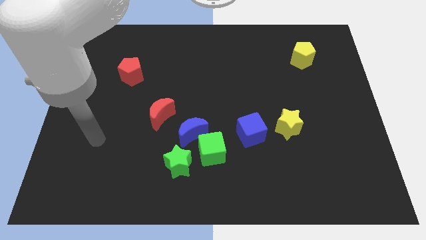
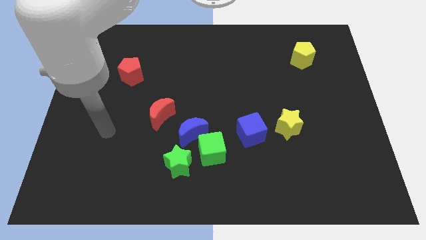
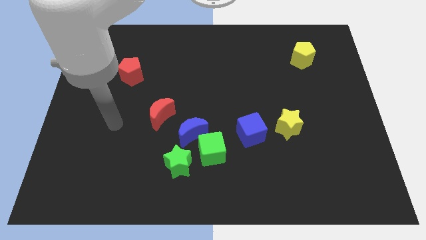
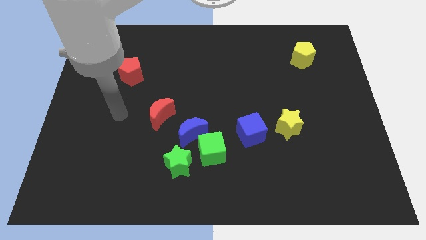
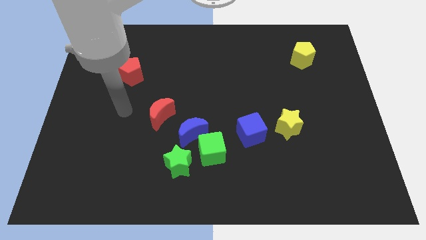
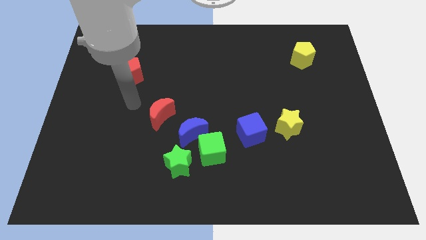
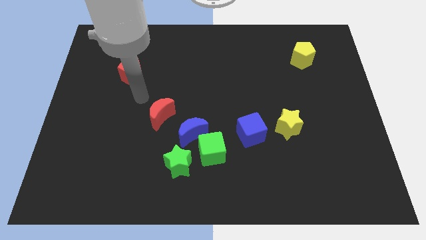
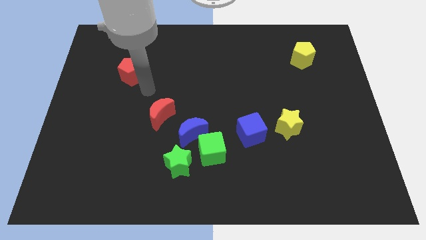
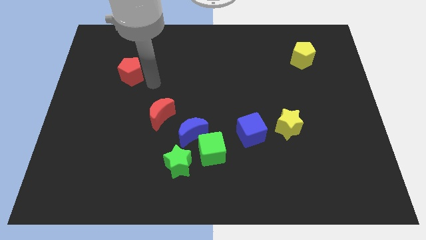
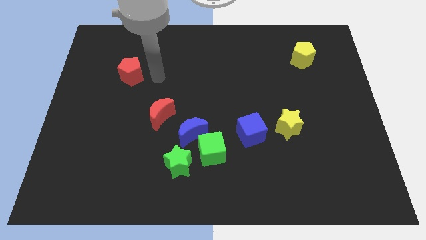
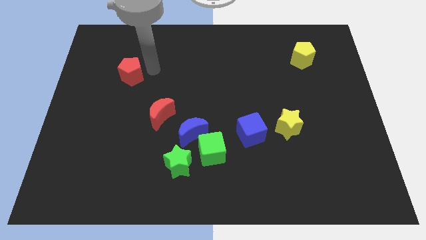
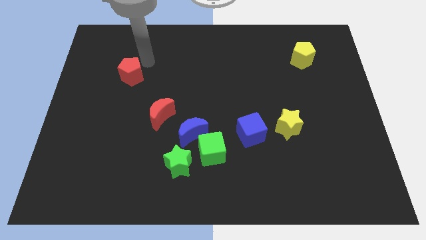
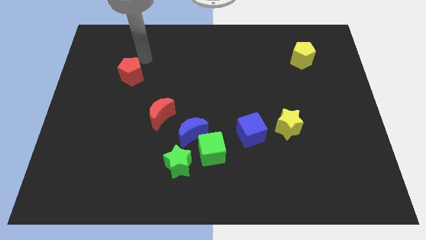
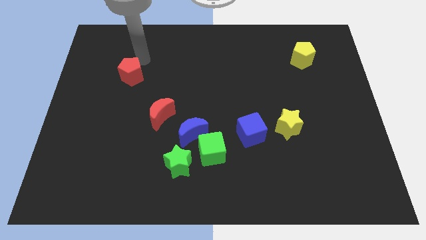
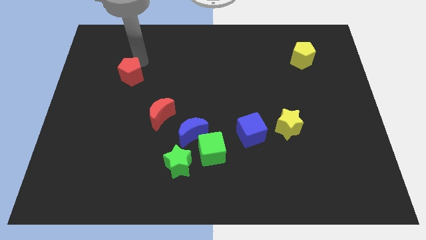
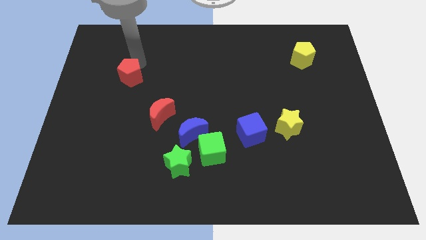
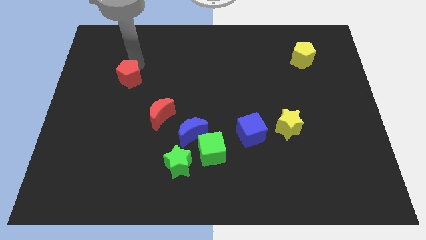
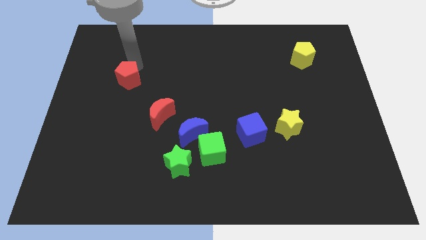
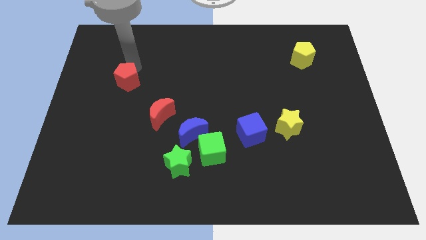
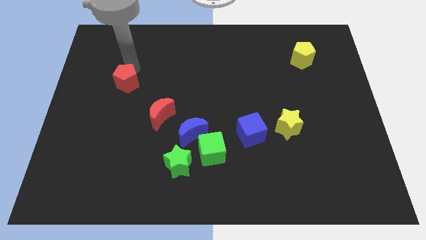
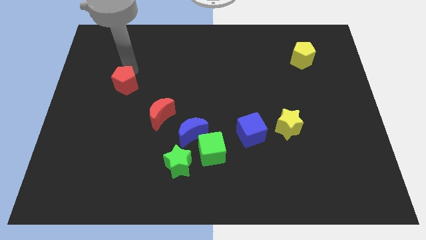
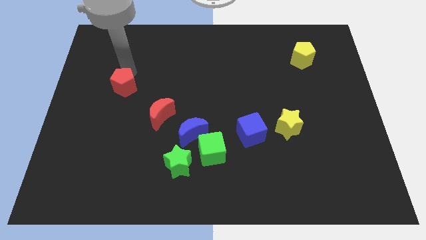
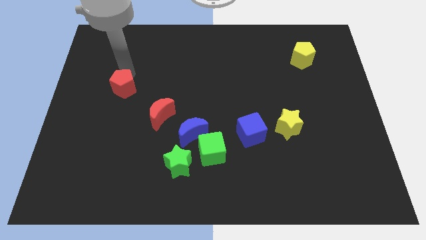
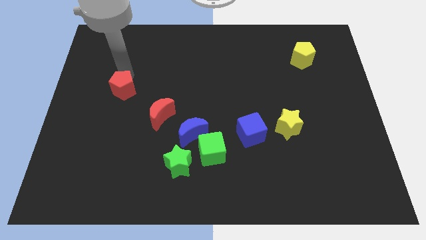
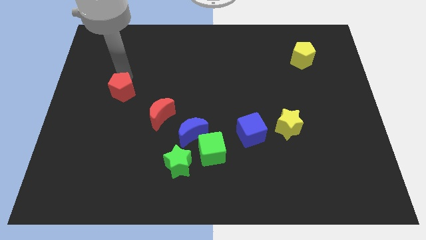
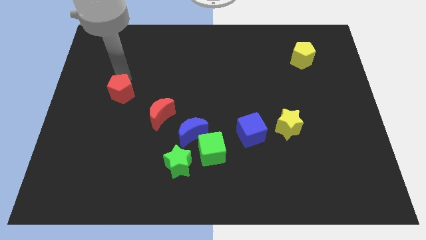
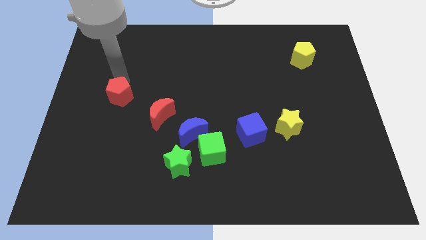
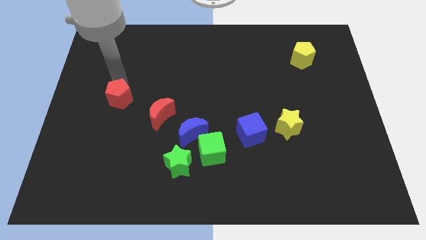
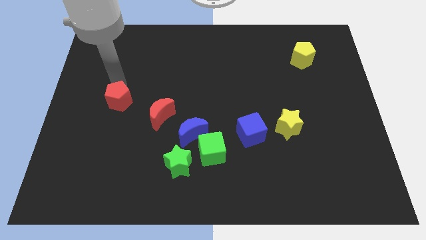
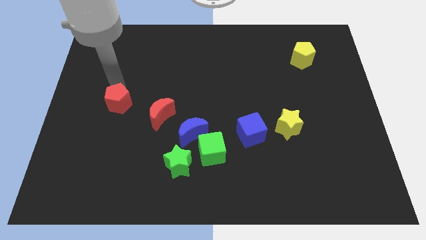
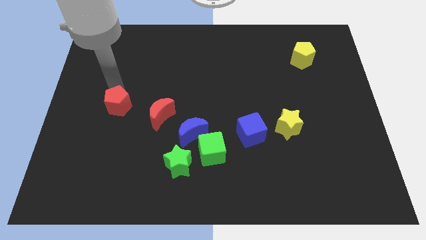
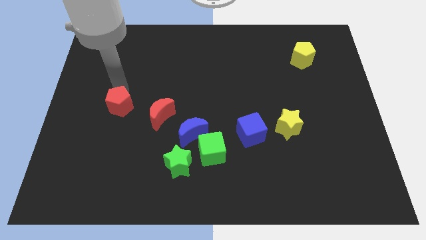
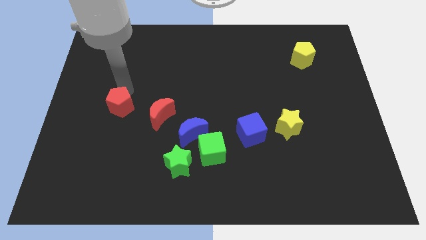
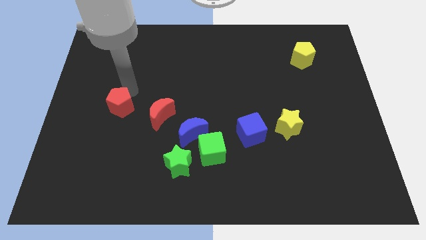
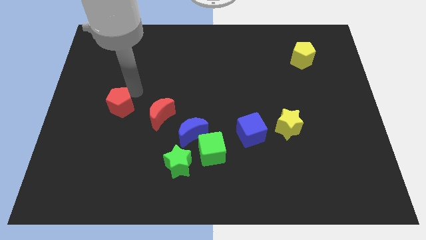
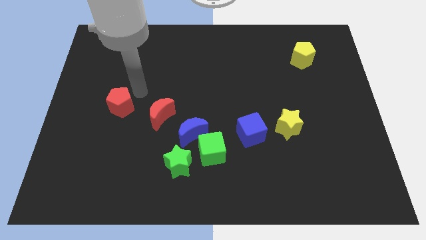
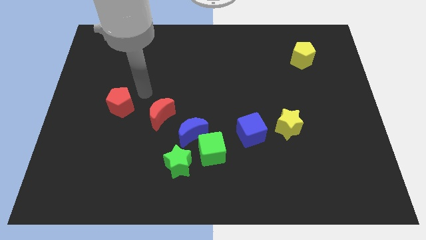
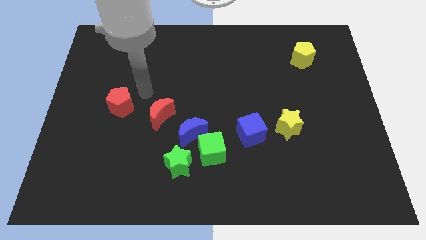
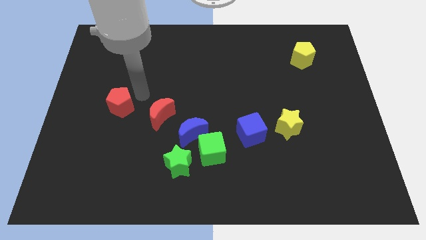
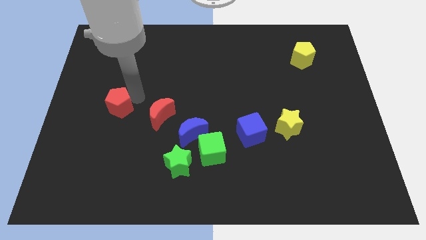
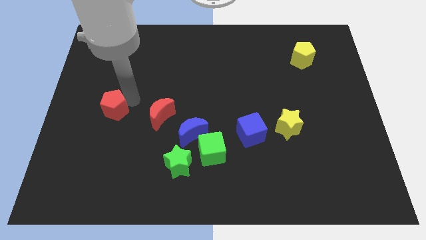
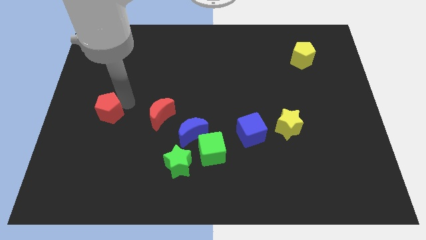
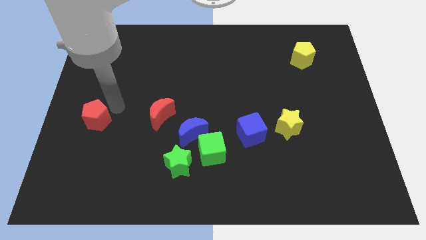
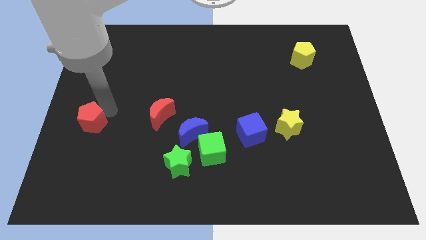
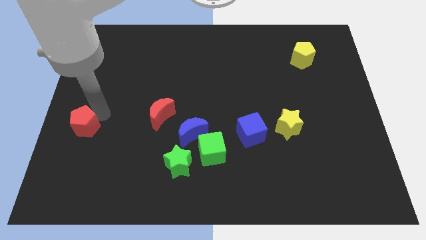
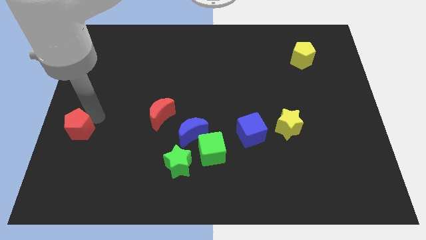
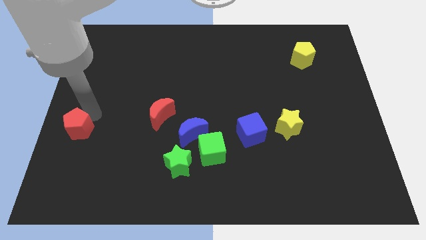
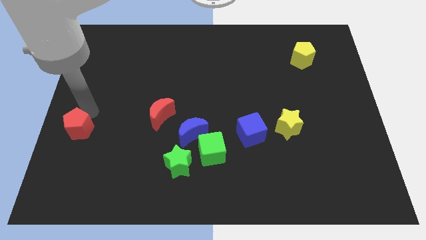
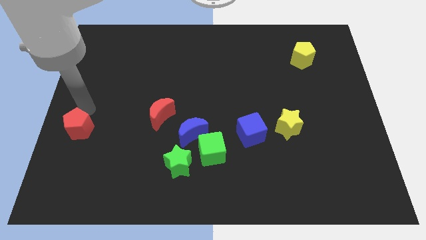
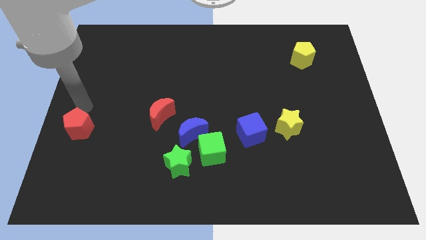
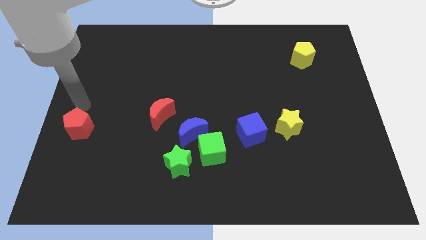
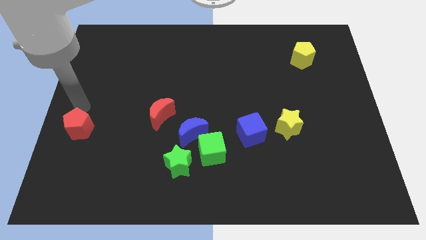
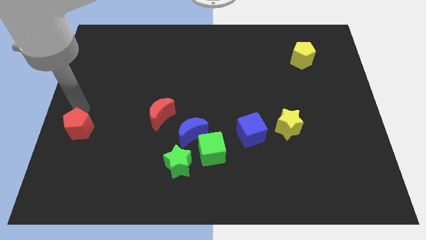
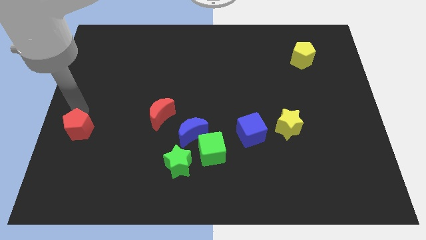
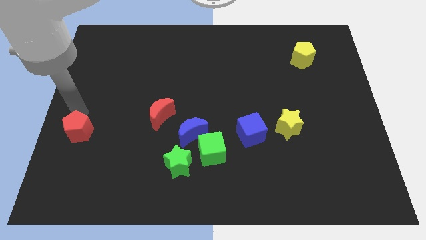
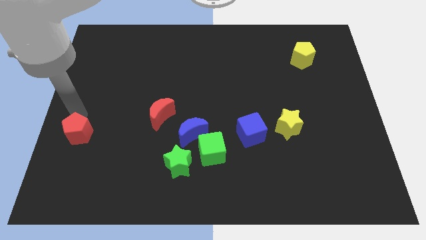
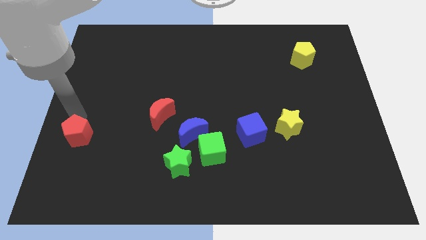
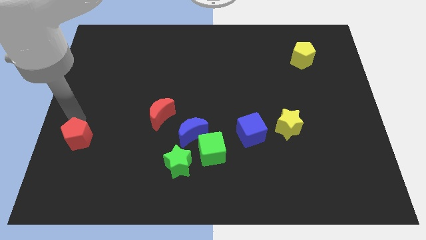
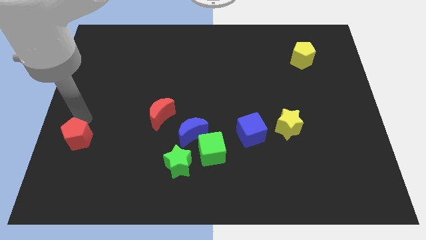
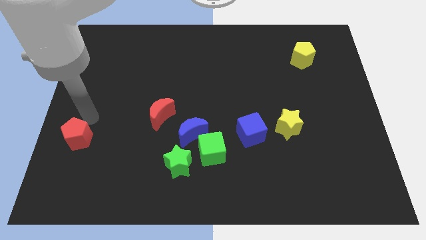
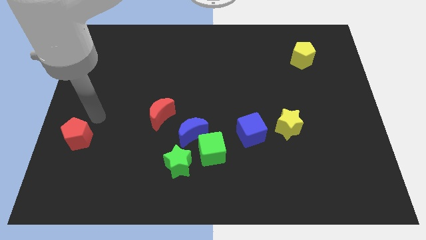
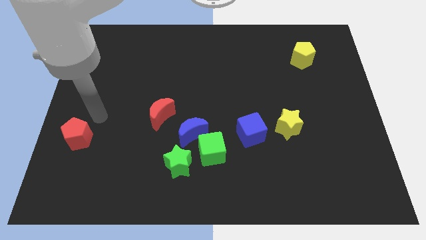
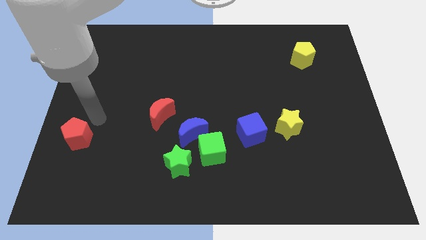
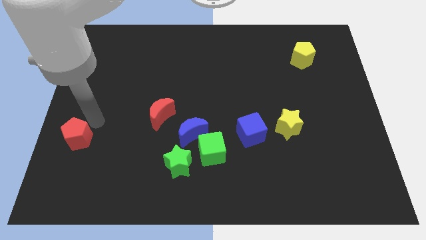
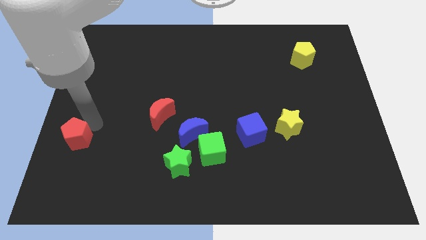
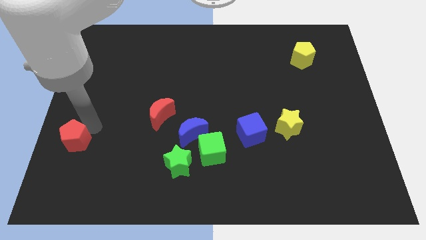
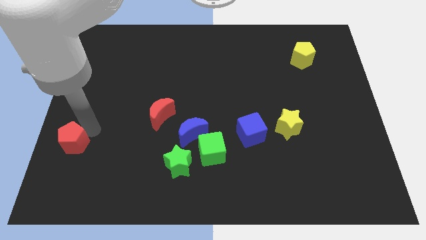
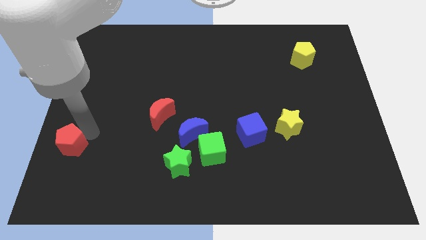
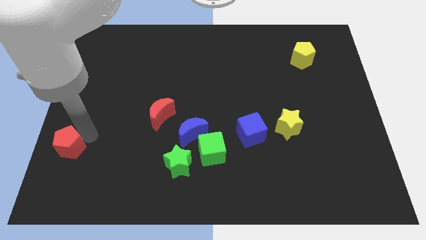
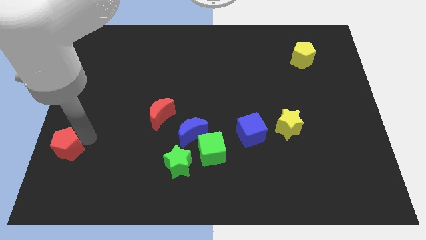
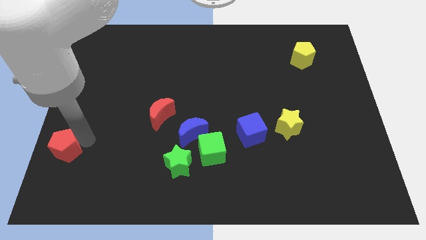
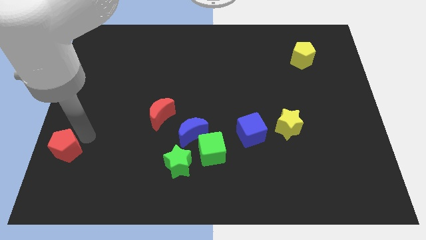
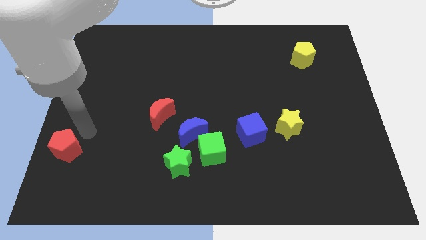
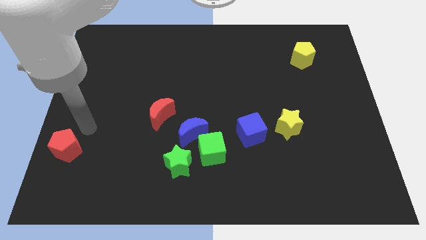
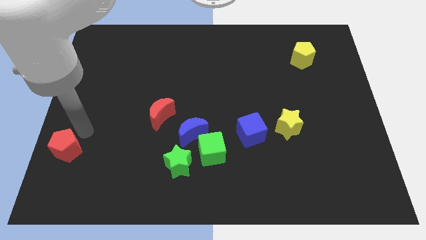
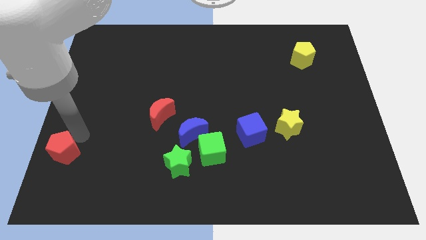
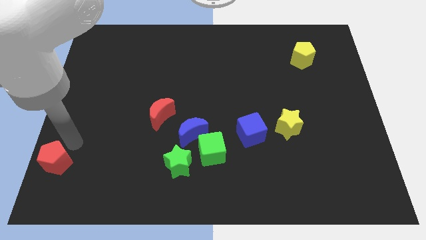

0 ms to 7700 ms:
move the red pentagon to the lower left corner

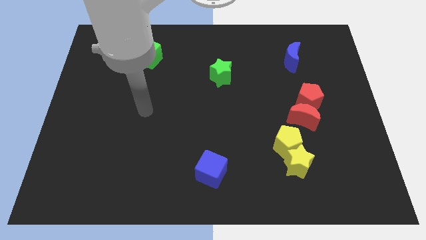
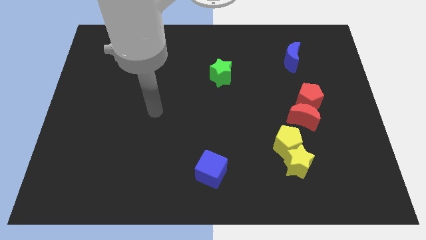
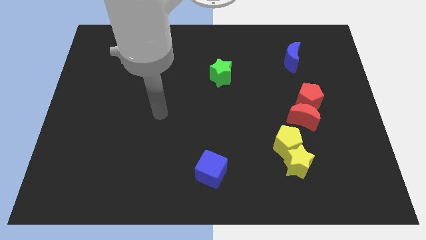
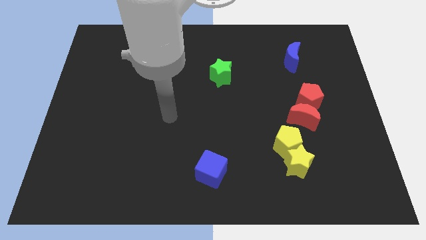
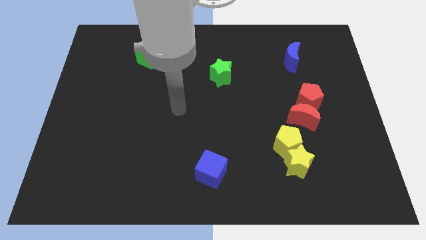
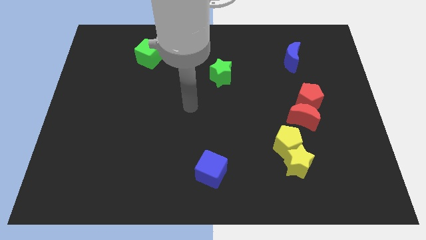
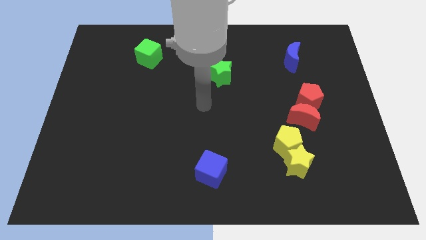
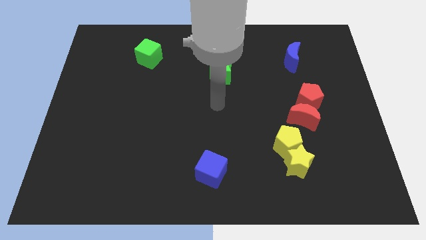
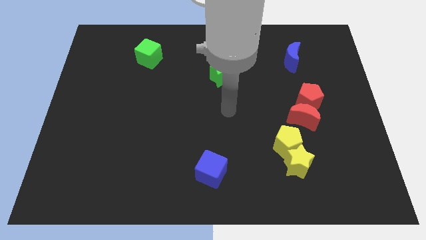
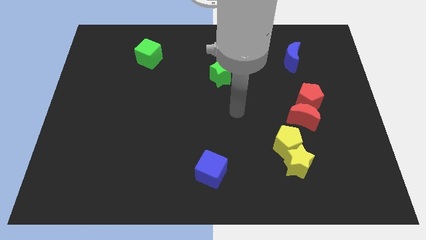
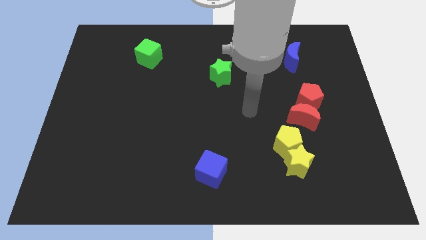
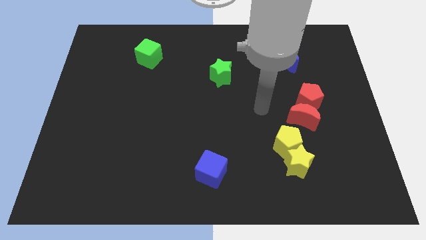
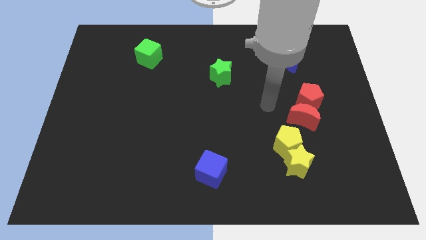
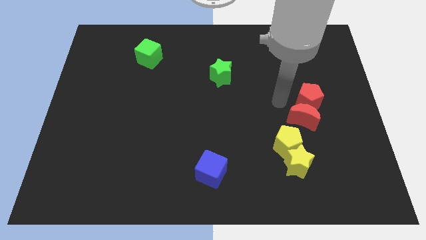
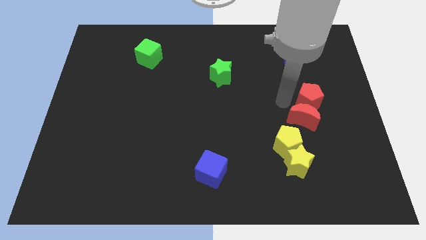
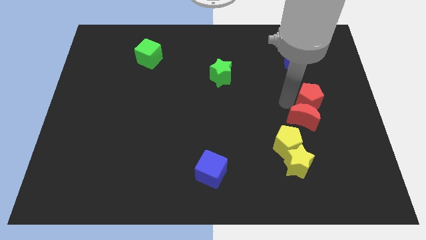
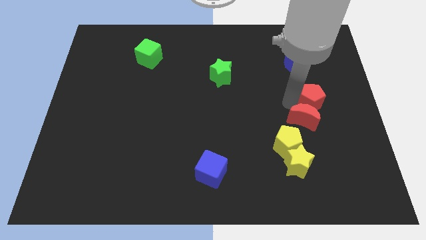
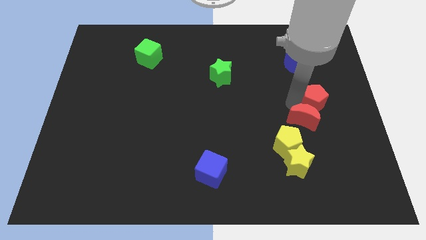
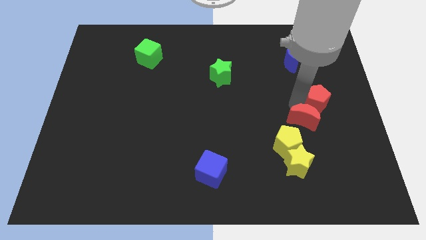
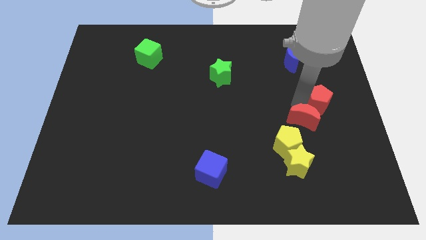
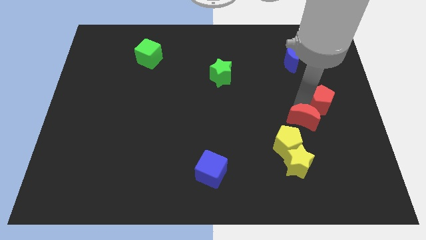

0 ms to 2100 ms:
slide the red pentagon to the center right
